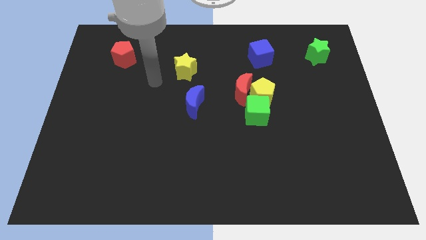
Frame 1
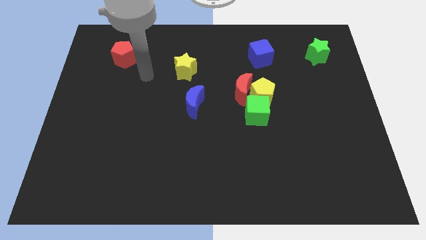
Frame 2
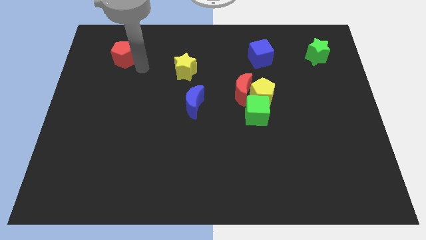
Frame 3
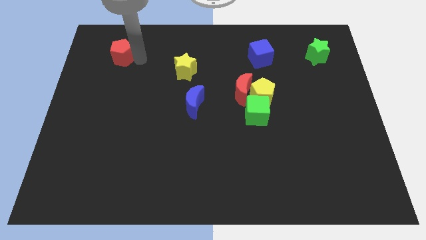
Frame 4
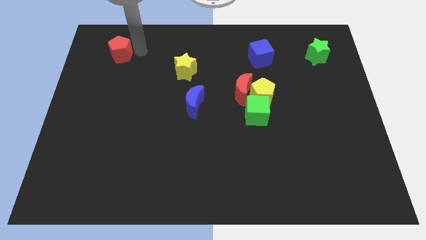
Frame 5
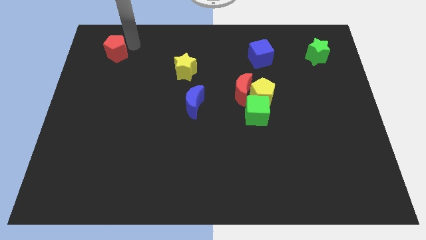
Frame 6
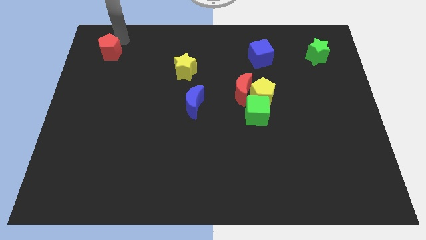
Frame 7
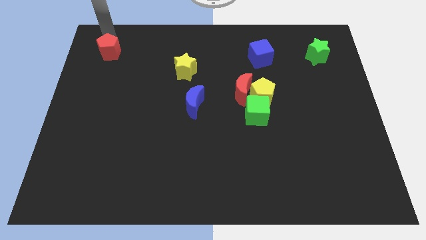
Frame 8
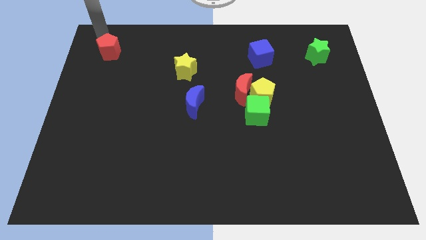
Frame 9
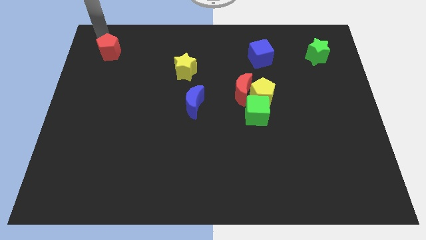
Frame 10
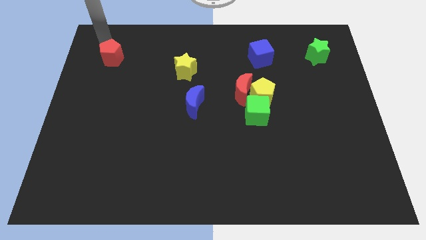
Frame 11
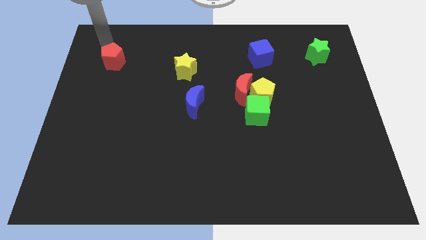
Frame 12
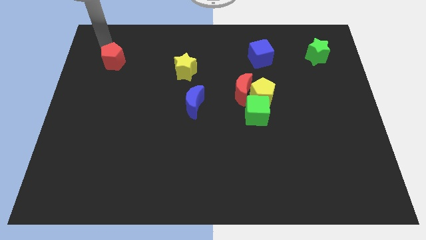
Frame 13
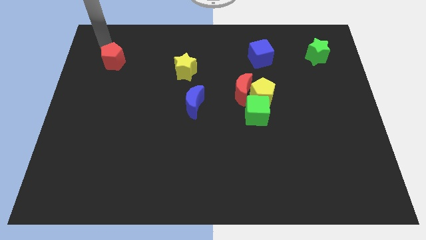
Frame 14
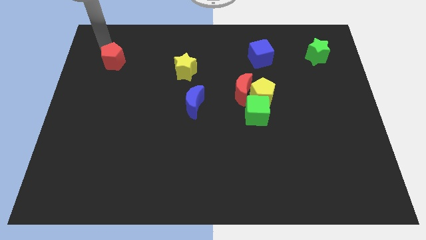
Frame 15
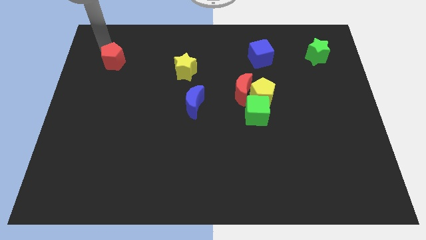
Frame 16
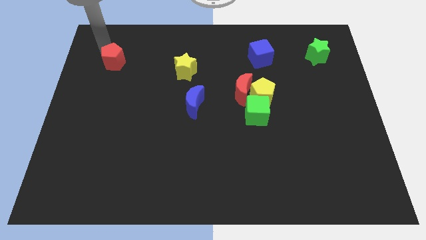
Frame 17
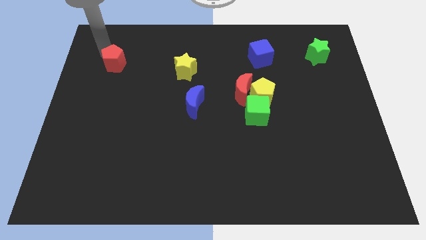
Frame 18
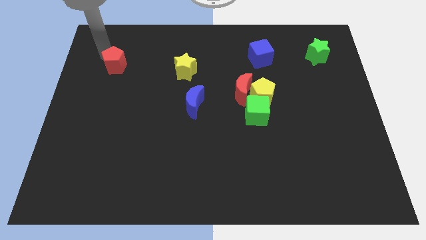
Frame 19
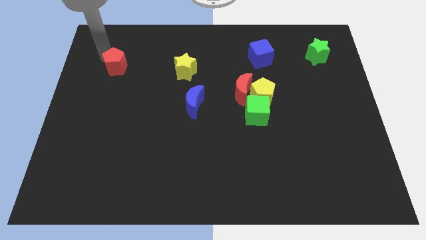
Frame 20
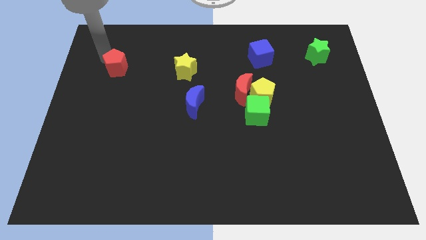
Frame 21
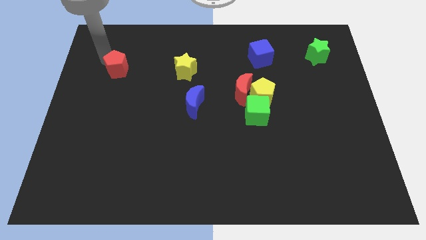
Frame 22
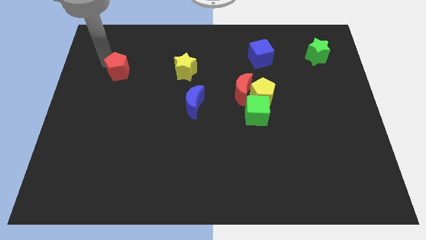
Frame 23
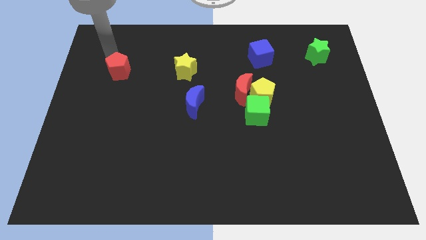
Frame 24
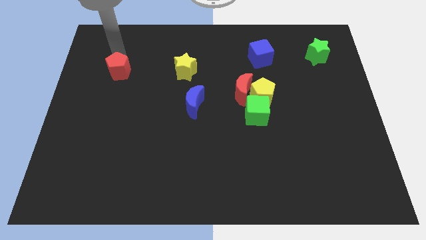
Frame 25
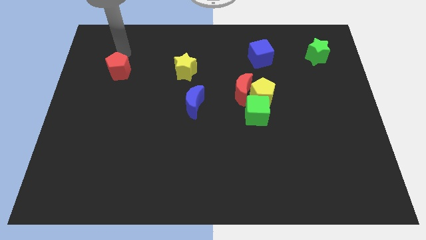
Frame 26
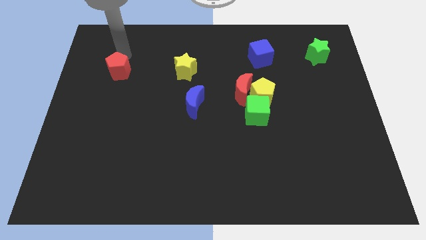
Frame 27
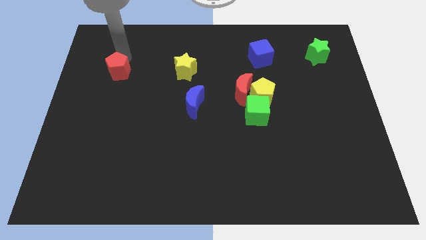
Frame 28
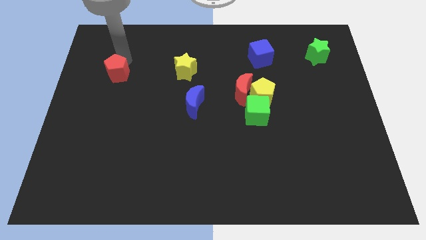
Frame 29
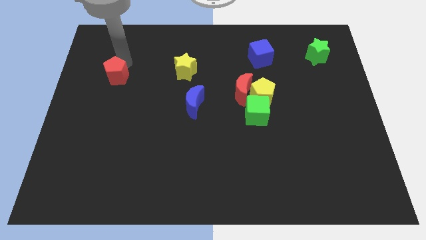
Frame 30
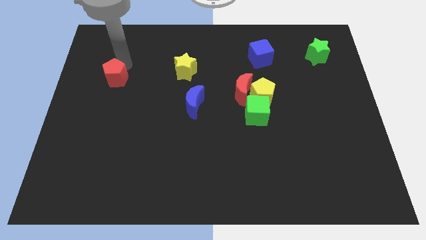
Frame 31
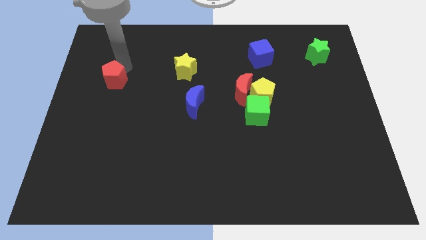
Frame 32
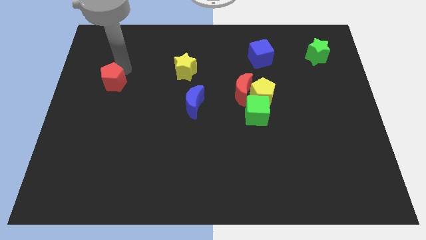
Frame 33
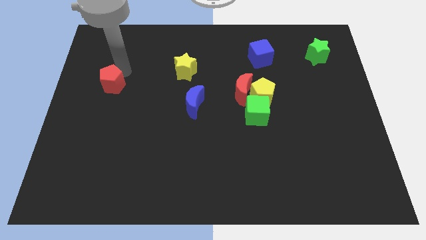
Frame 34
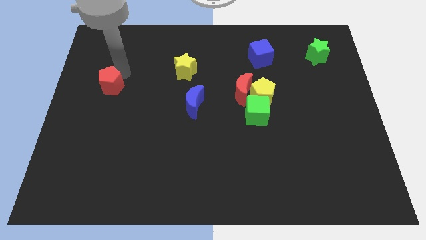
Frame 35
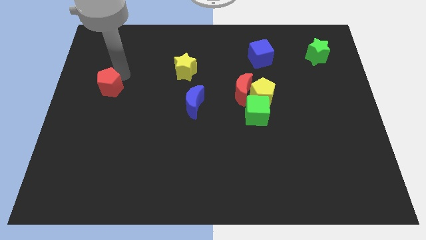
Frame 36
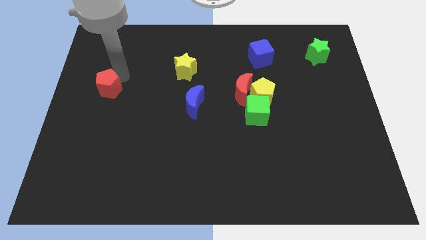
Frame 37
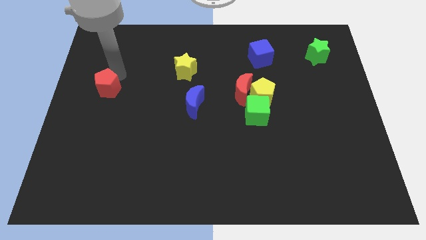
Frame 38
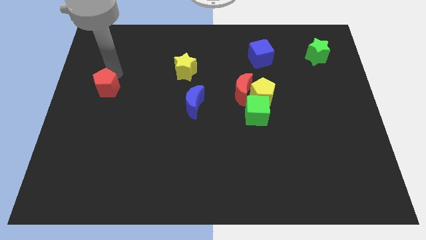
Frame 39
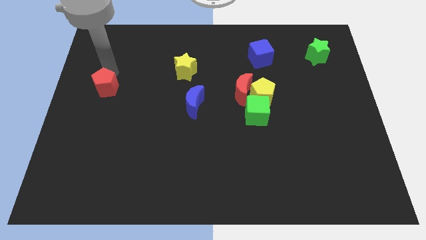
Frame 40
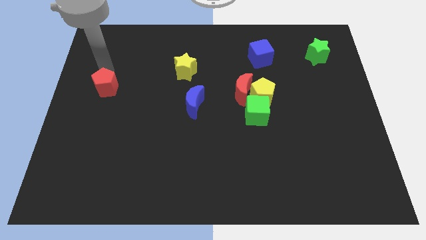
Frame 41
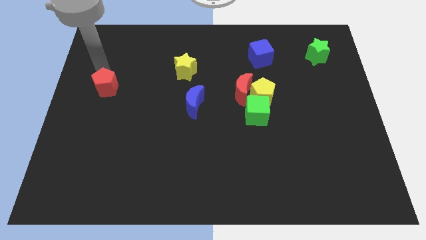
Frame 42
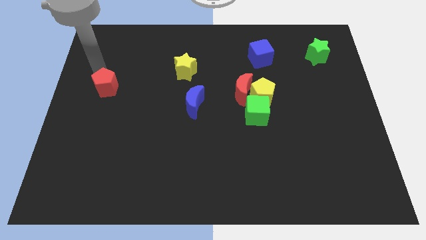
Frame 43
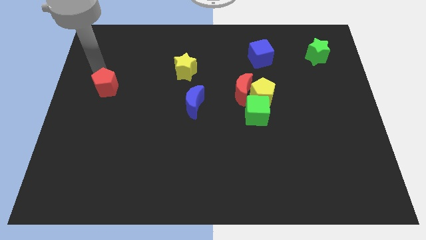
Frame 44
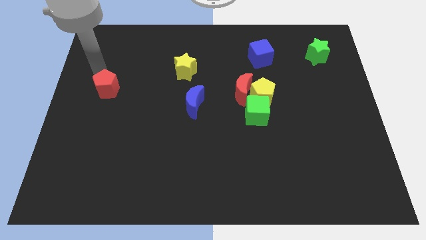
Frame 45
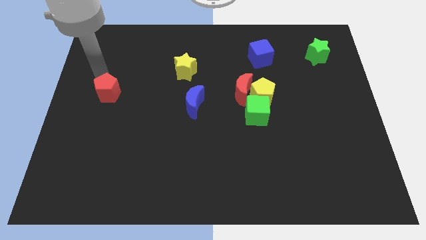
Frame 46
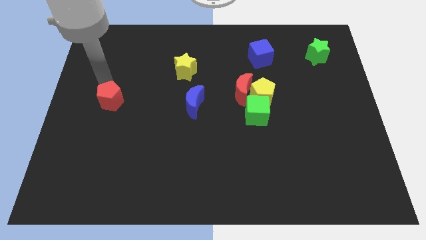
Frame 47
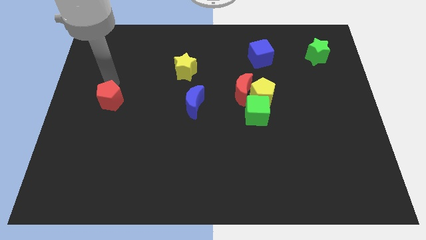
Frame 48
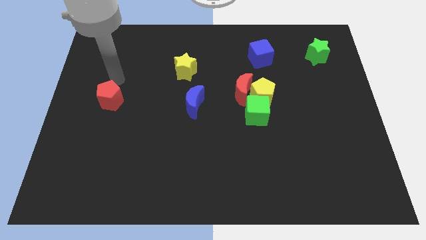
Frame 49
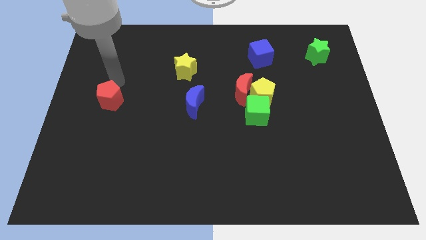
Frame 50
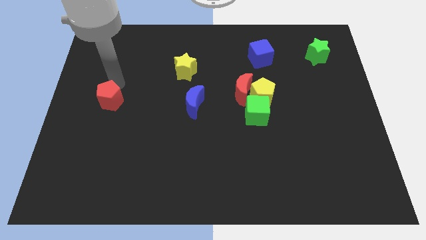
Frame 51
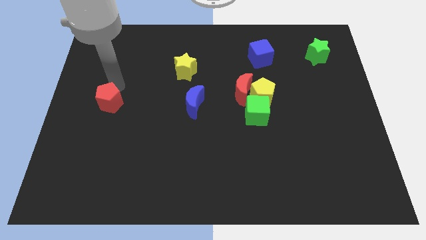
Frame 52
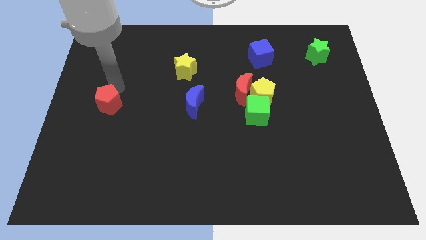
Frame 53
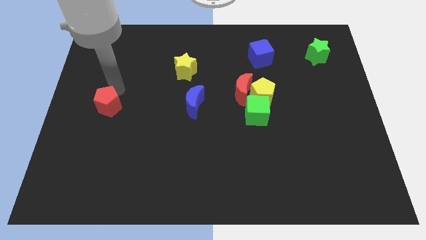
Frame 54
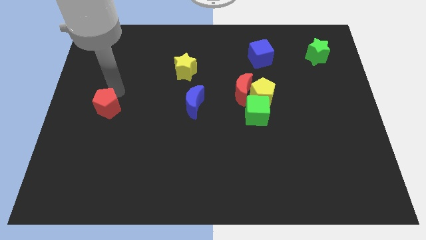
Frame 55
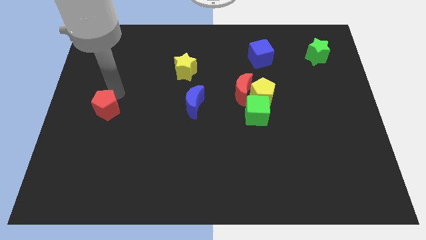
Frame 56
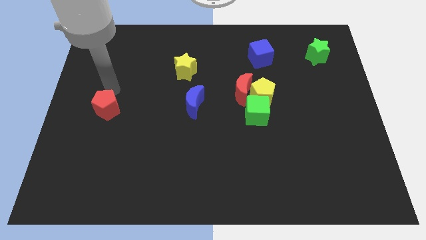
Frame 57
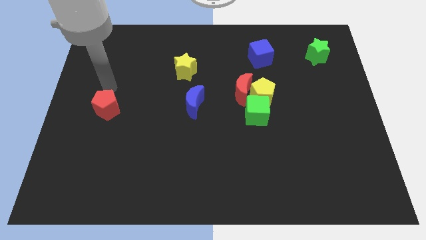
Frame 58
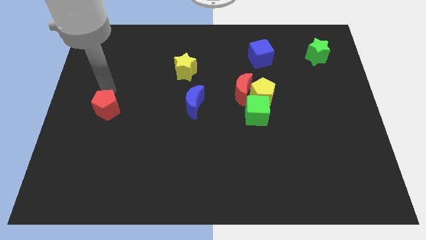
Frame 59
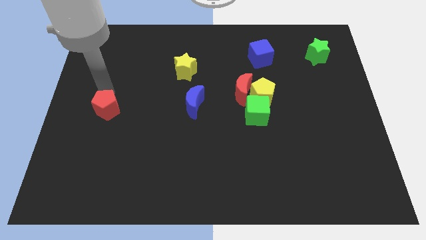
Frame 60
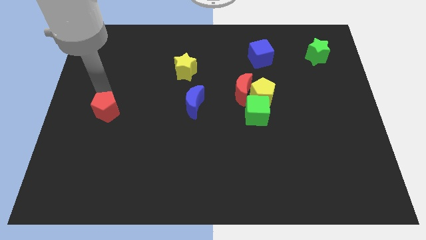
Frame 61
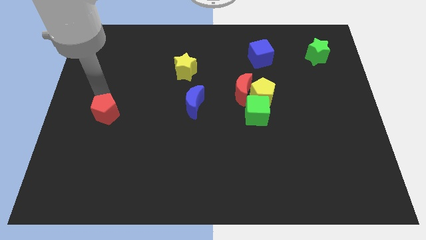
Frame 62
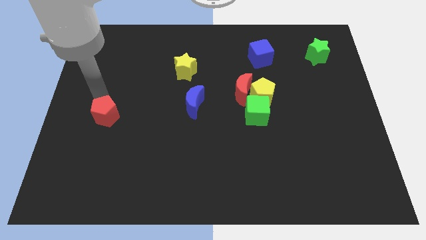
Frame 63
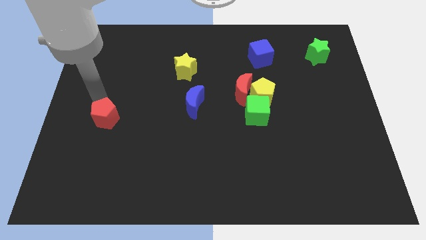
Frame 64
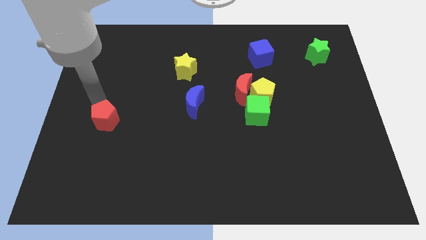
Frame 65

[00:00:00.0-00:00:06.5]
move the red pentagon down

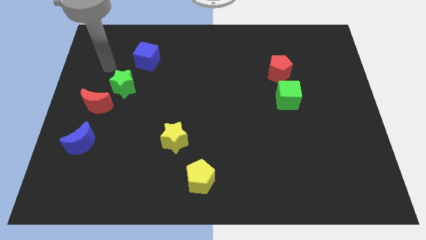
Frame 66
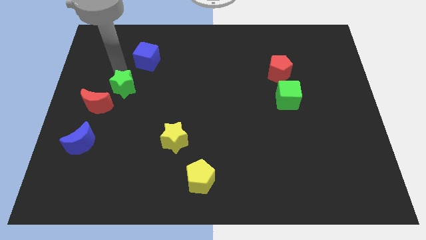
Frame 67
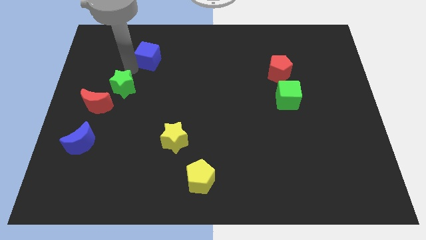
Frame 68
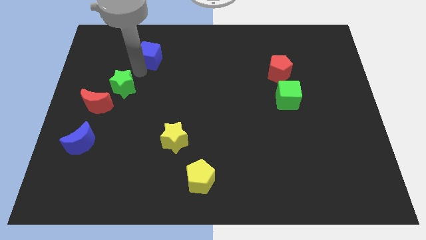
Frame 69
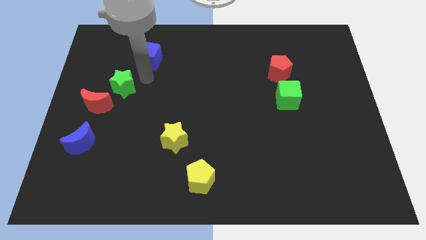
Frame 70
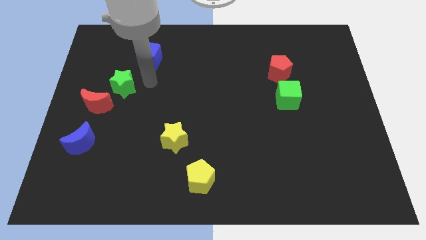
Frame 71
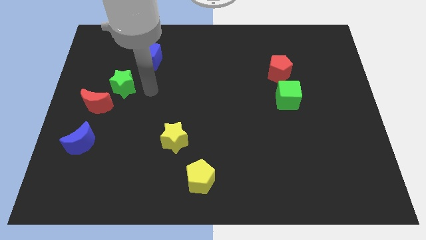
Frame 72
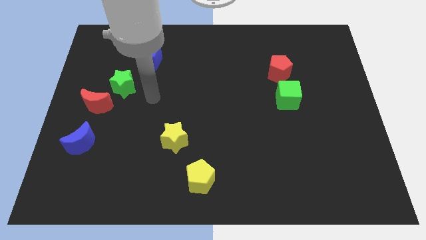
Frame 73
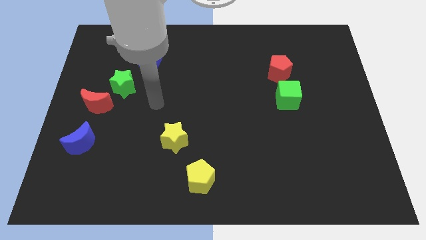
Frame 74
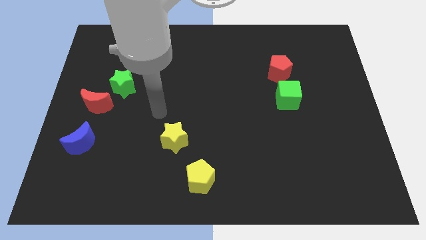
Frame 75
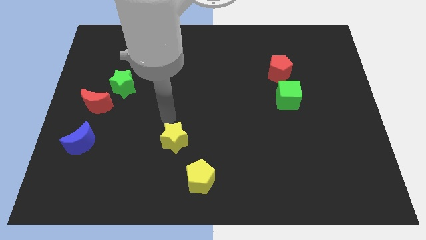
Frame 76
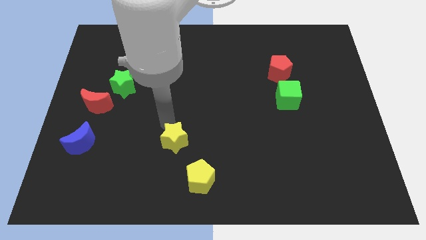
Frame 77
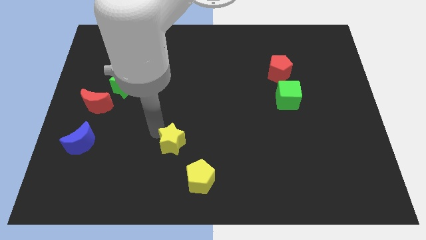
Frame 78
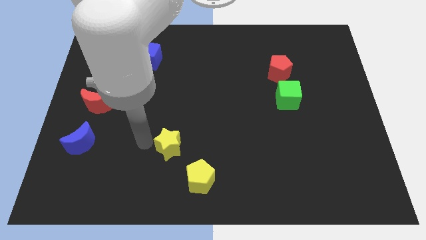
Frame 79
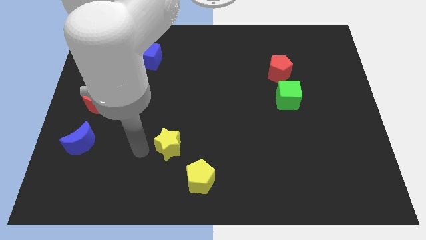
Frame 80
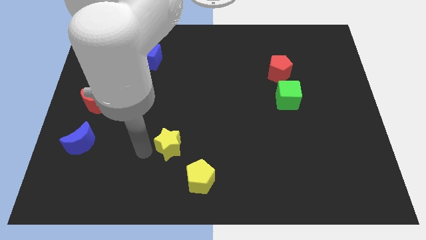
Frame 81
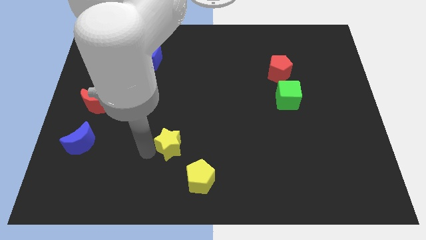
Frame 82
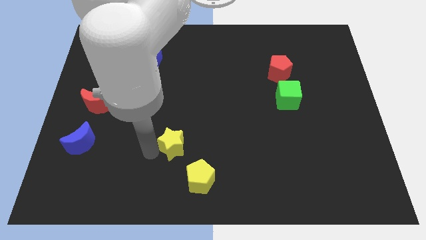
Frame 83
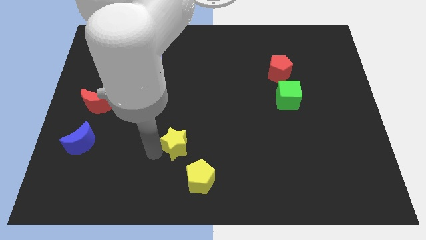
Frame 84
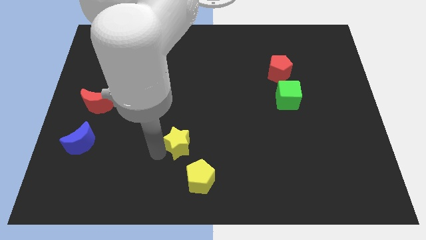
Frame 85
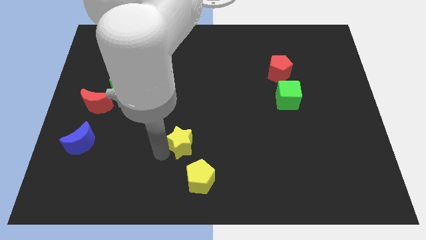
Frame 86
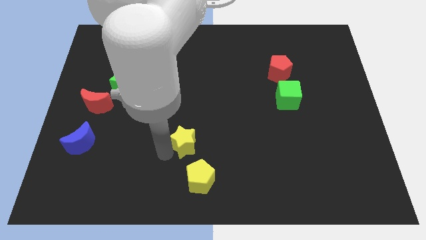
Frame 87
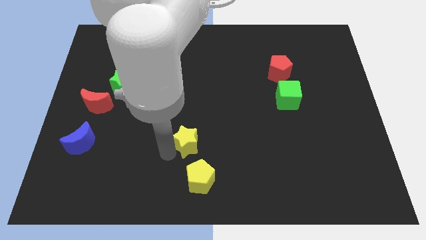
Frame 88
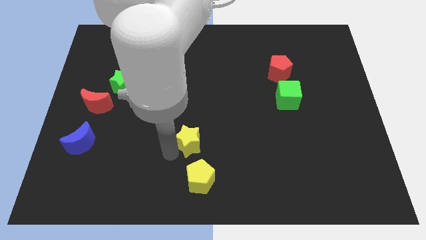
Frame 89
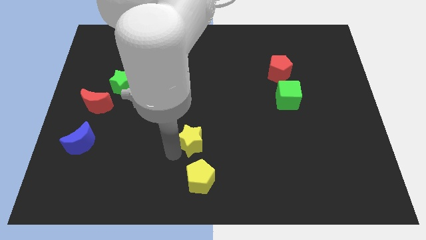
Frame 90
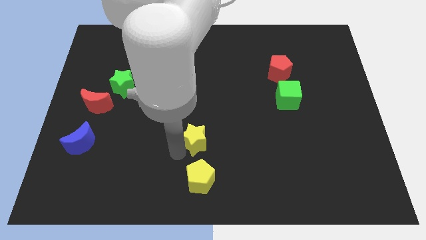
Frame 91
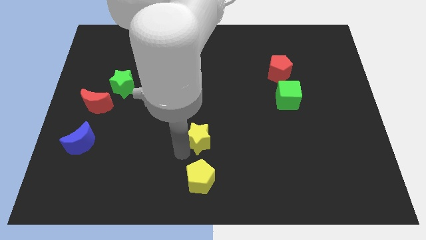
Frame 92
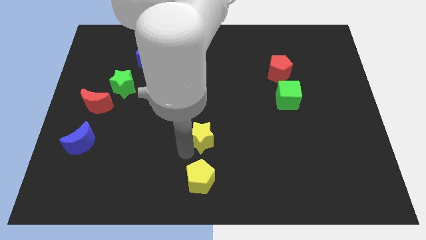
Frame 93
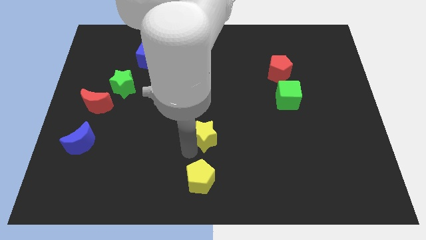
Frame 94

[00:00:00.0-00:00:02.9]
push the yellow star to the right somewhat
